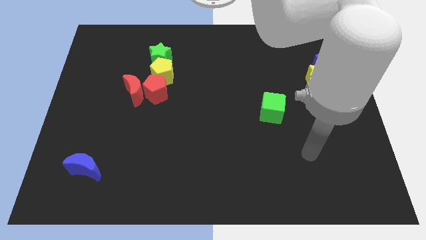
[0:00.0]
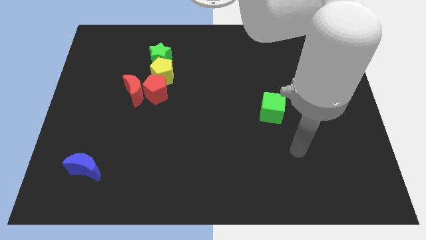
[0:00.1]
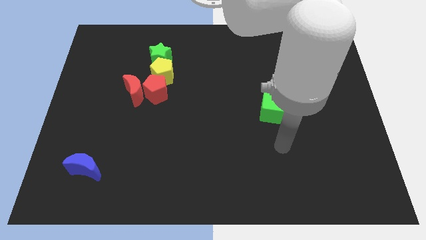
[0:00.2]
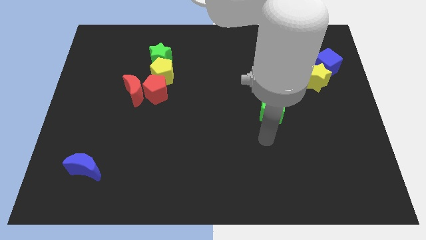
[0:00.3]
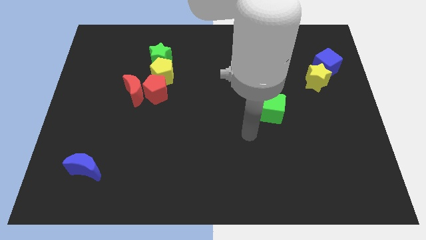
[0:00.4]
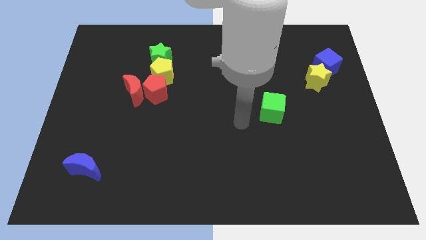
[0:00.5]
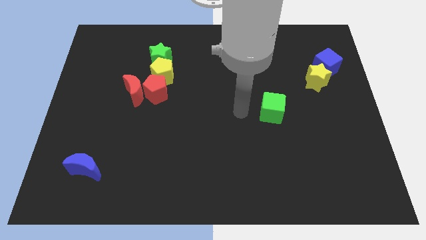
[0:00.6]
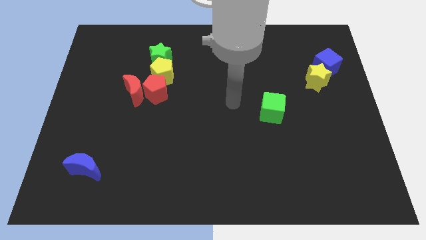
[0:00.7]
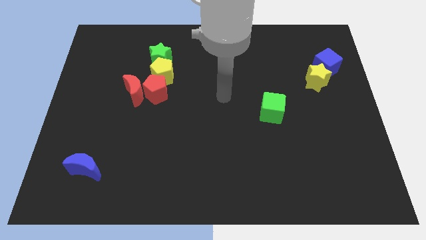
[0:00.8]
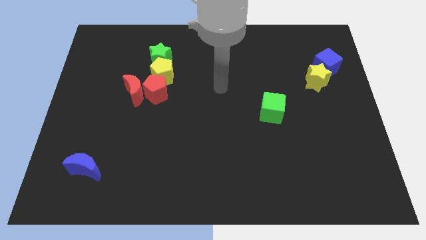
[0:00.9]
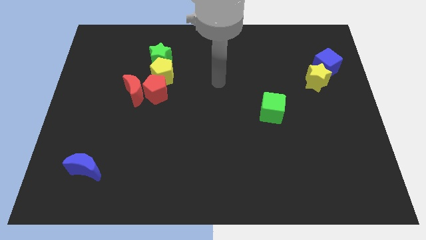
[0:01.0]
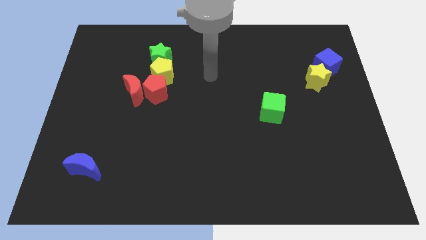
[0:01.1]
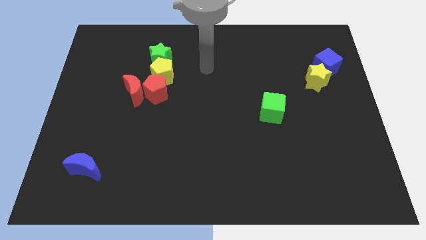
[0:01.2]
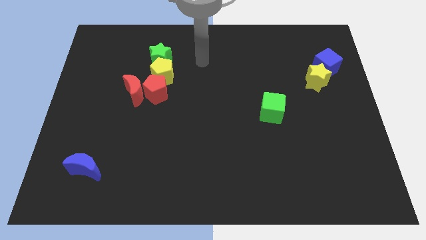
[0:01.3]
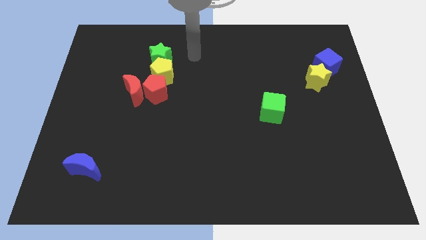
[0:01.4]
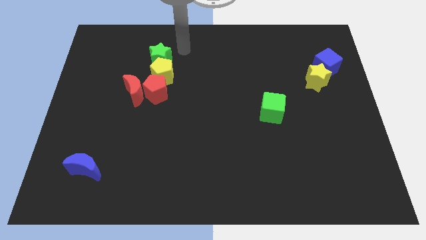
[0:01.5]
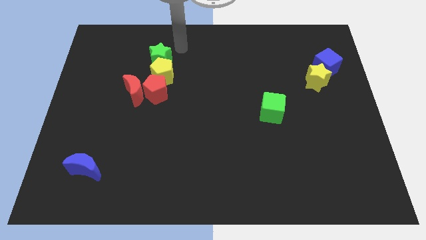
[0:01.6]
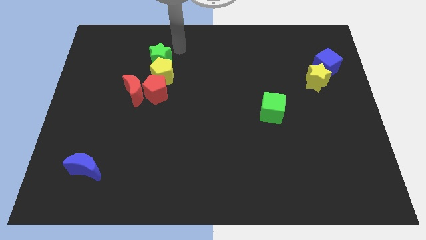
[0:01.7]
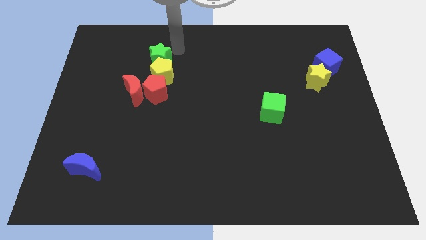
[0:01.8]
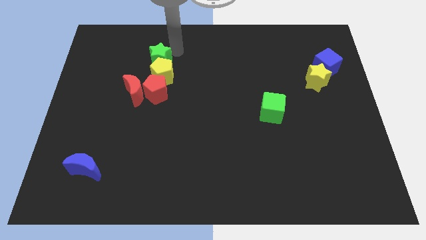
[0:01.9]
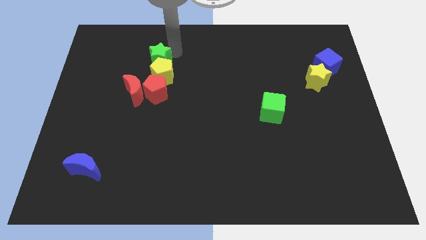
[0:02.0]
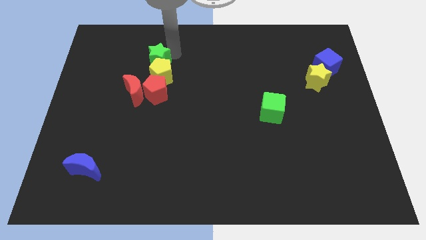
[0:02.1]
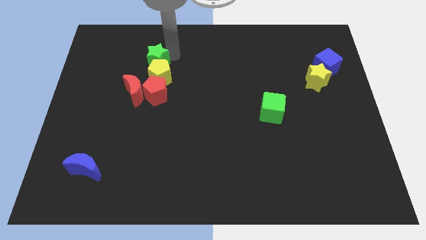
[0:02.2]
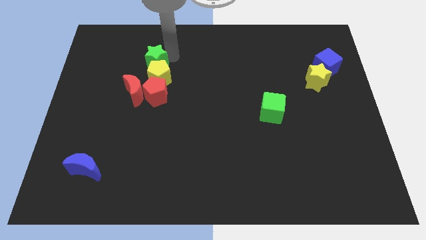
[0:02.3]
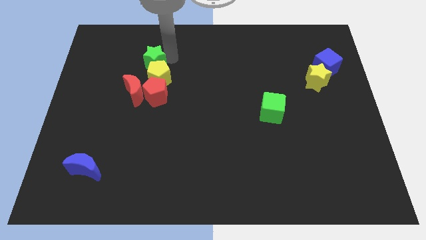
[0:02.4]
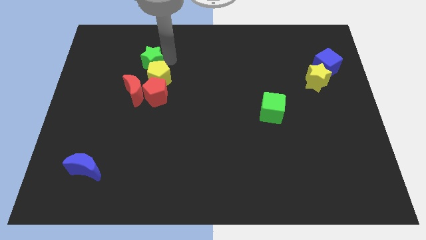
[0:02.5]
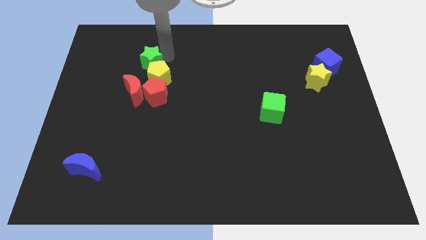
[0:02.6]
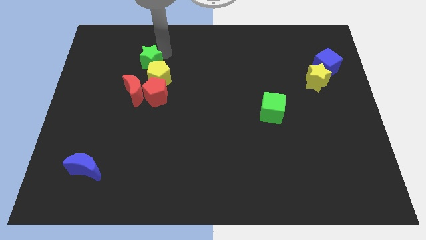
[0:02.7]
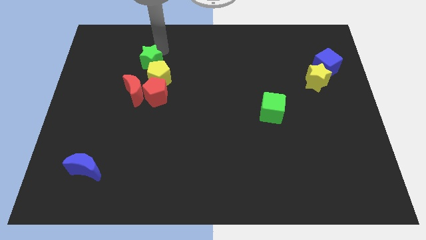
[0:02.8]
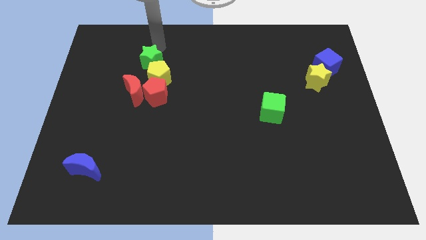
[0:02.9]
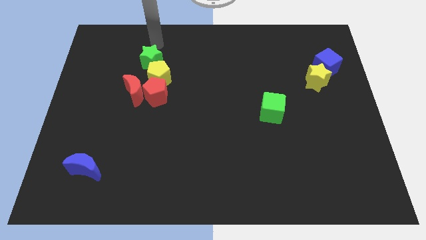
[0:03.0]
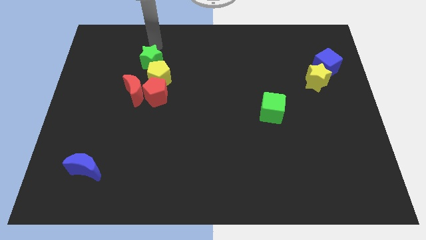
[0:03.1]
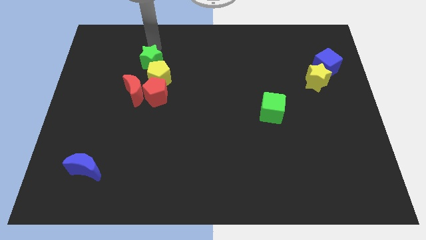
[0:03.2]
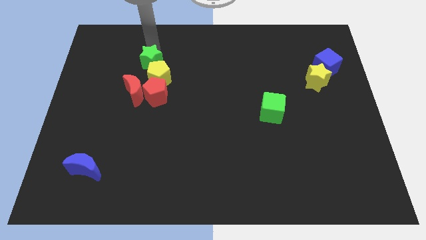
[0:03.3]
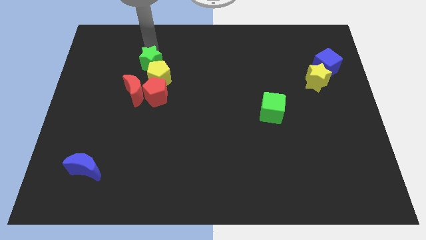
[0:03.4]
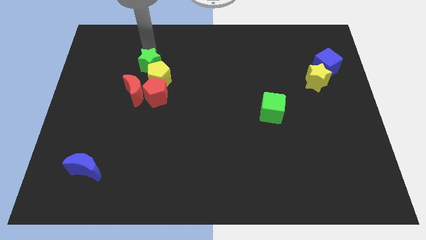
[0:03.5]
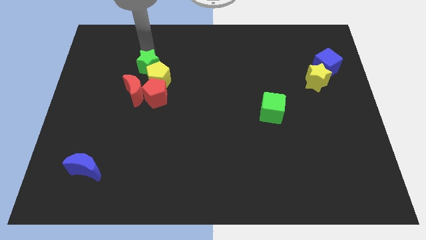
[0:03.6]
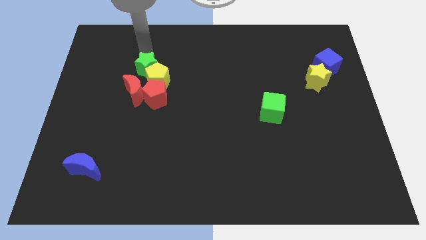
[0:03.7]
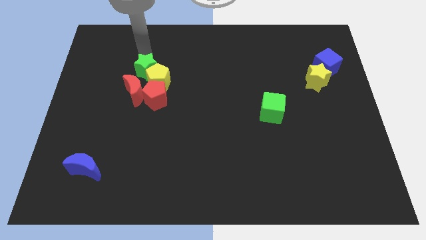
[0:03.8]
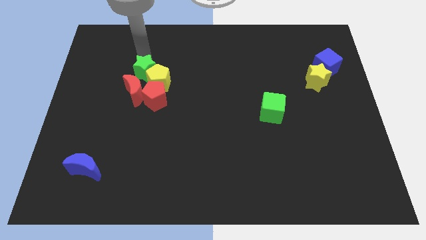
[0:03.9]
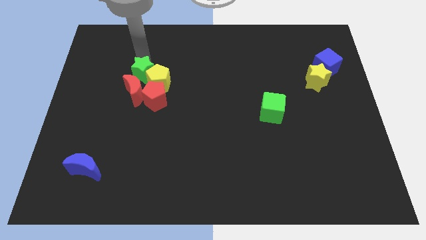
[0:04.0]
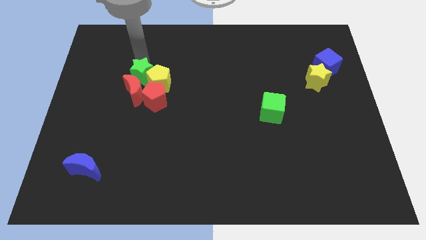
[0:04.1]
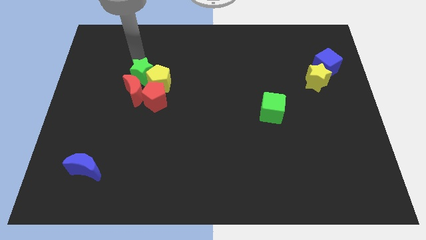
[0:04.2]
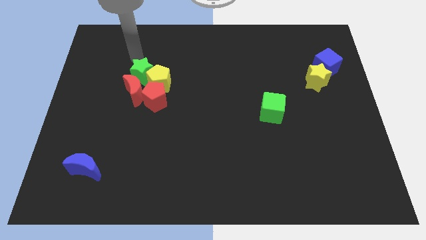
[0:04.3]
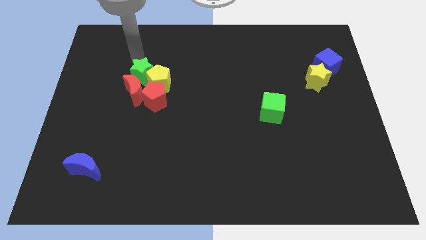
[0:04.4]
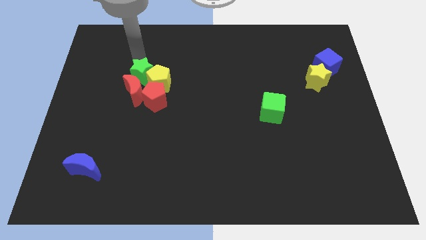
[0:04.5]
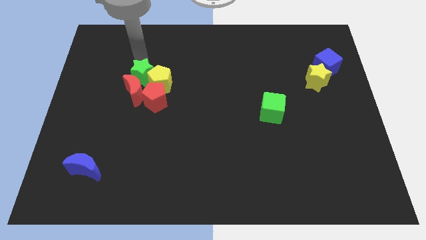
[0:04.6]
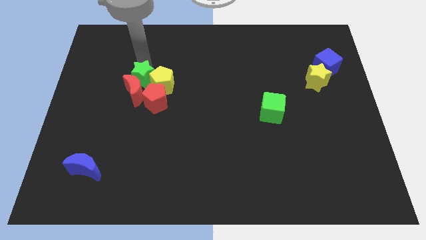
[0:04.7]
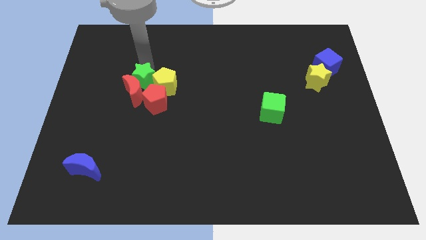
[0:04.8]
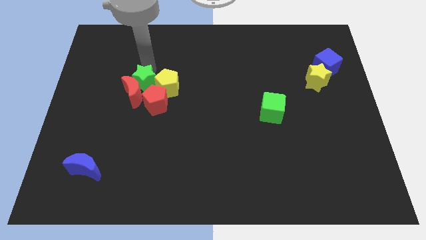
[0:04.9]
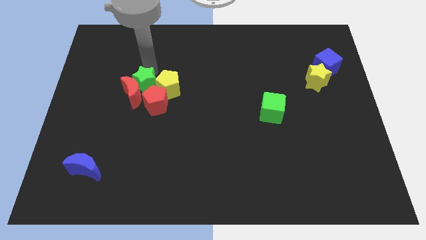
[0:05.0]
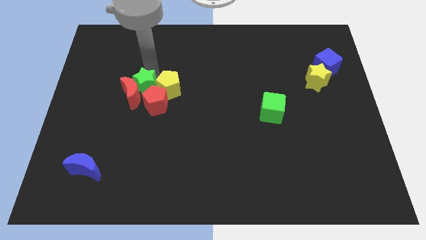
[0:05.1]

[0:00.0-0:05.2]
put the green star next to the red pentagon

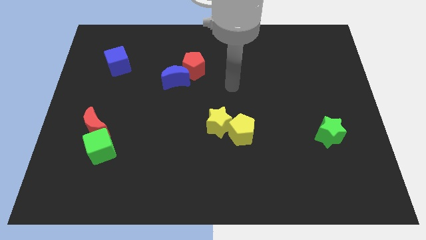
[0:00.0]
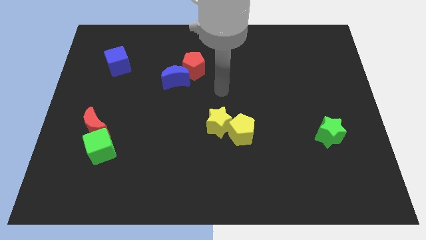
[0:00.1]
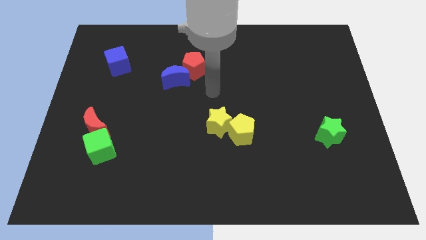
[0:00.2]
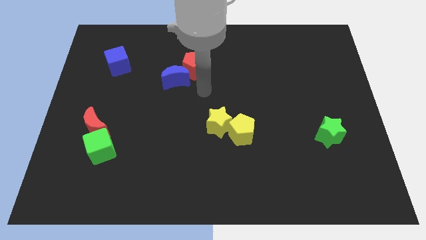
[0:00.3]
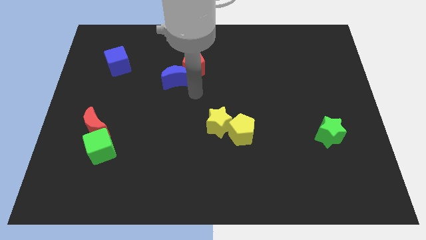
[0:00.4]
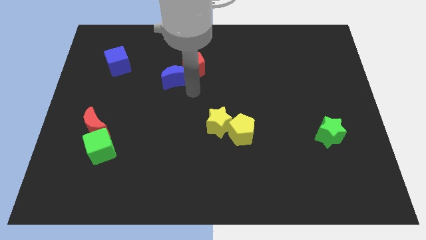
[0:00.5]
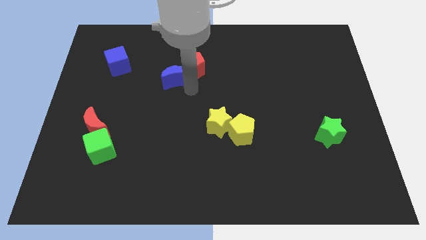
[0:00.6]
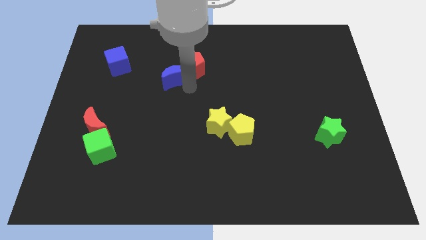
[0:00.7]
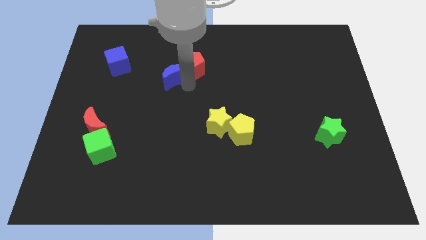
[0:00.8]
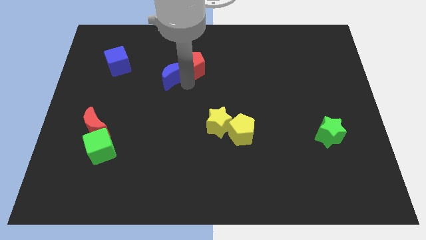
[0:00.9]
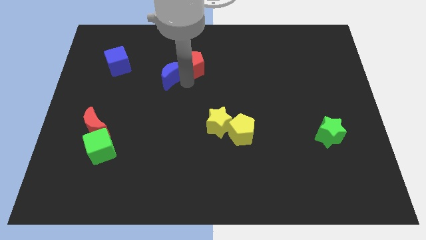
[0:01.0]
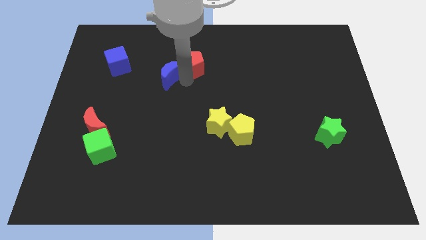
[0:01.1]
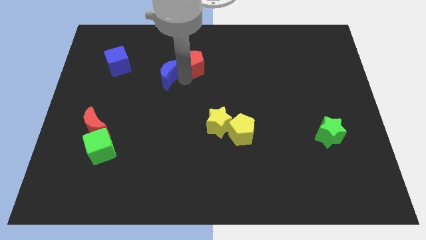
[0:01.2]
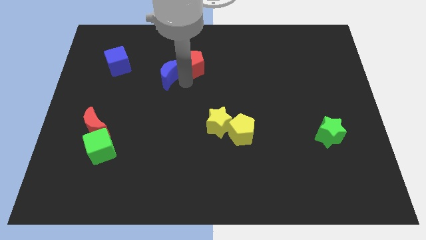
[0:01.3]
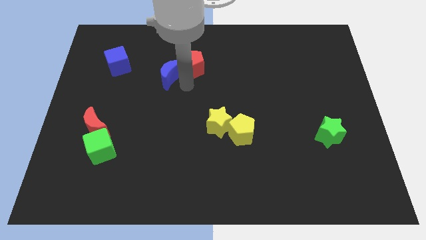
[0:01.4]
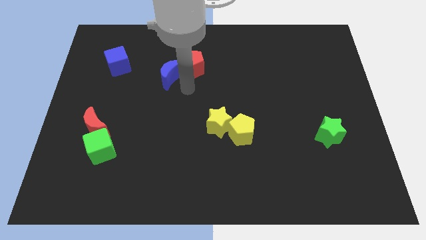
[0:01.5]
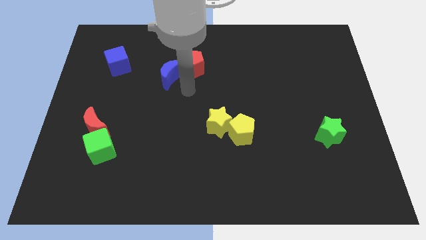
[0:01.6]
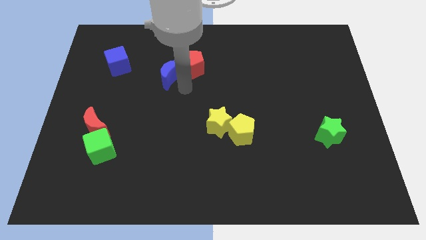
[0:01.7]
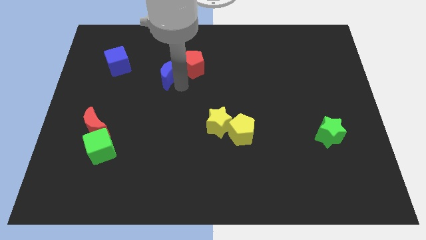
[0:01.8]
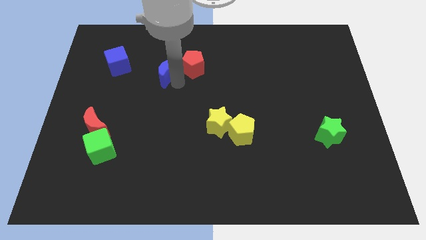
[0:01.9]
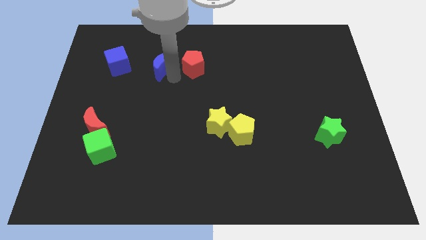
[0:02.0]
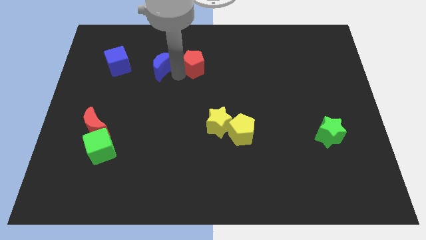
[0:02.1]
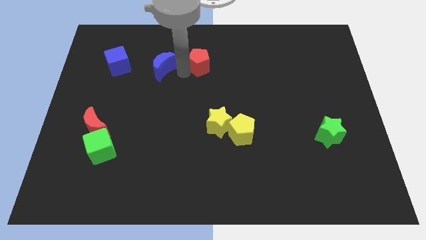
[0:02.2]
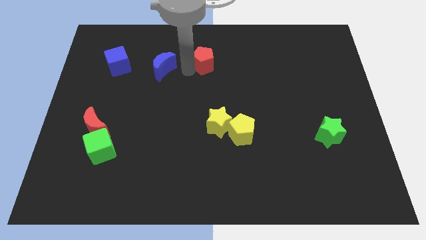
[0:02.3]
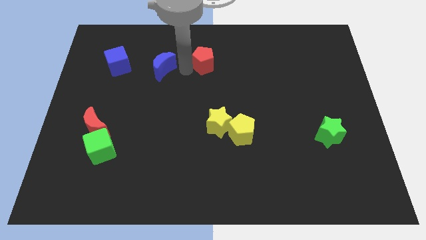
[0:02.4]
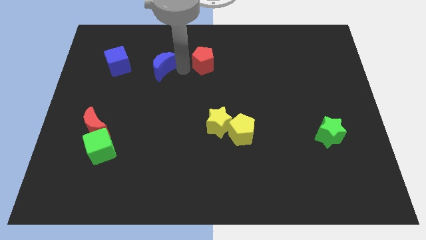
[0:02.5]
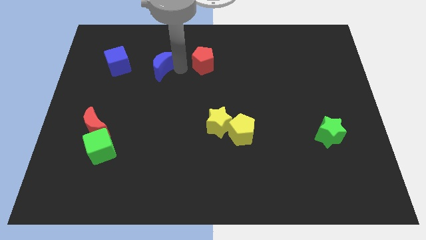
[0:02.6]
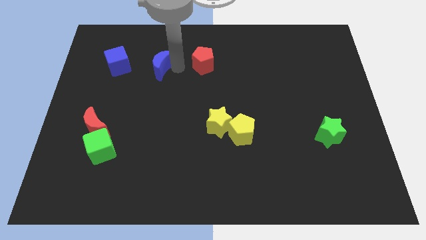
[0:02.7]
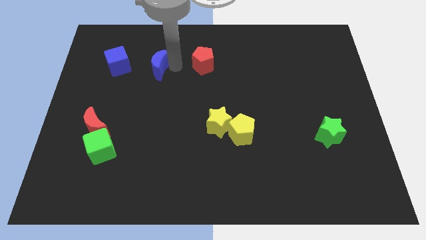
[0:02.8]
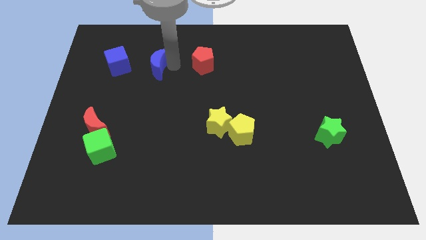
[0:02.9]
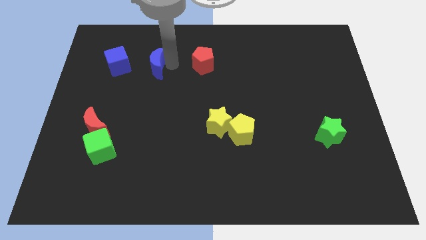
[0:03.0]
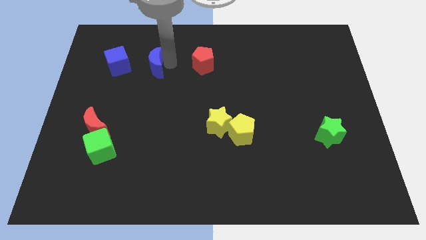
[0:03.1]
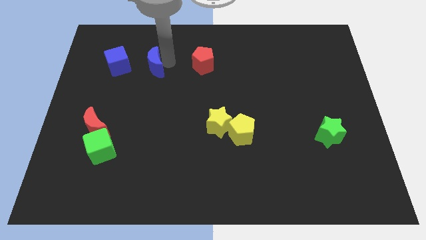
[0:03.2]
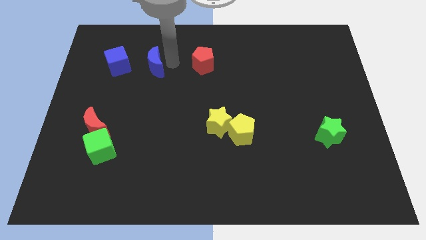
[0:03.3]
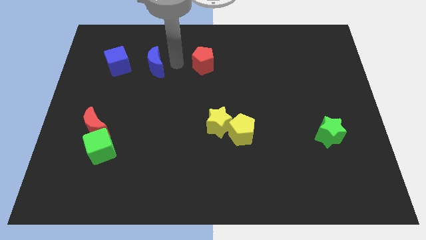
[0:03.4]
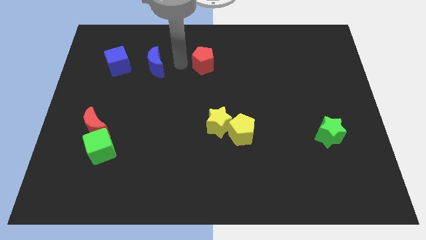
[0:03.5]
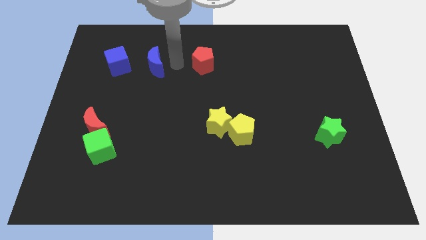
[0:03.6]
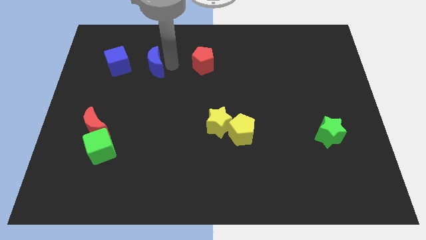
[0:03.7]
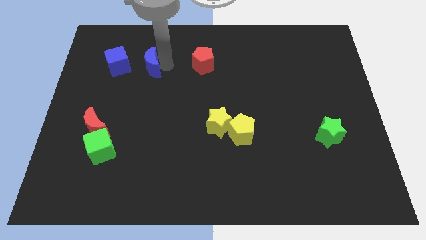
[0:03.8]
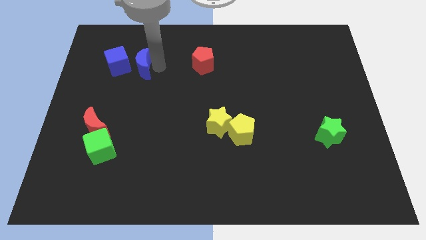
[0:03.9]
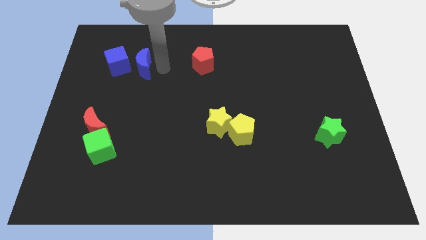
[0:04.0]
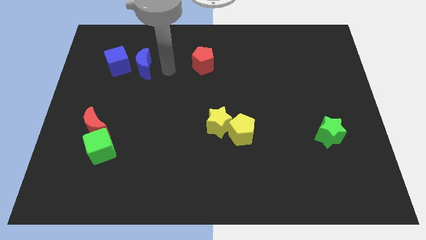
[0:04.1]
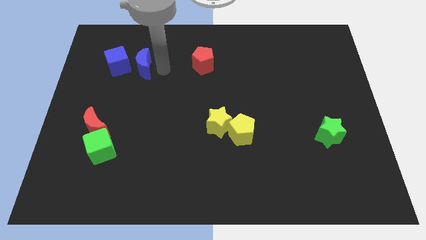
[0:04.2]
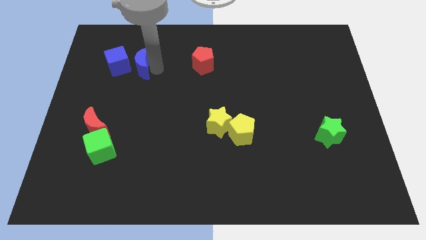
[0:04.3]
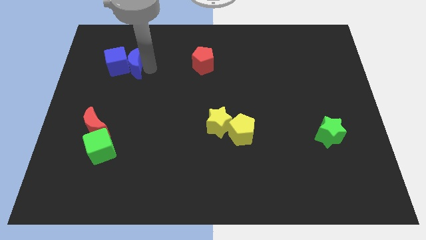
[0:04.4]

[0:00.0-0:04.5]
move the blue moon towards the blue cube
